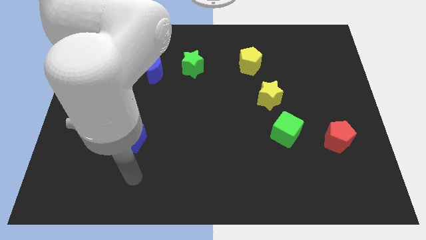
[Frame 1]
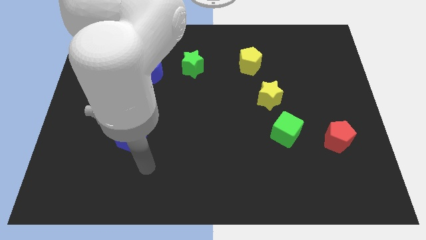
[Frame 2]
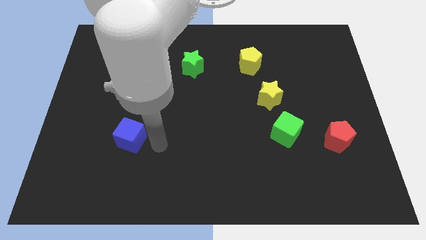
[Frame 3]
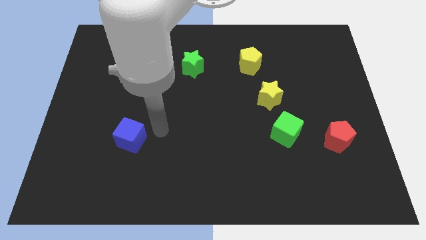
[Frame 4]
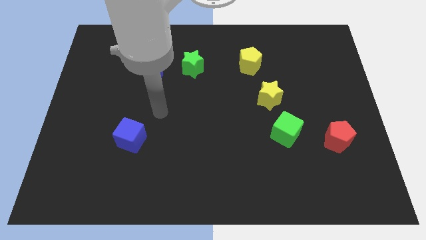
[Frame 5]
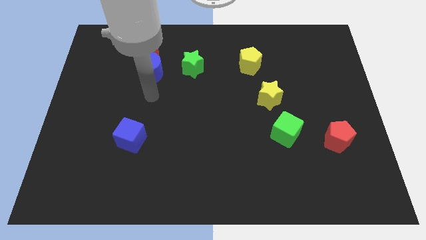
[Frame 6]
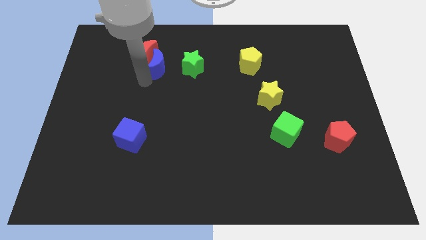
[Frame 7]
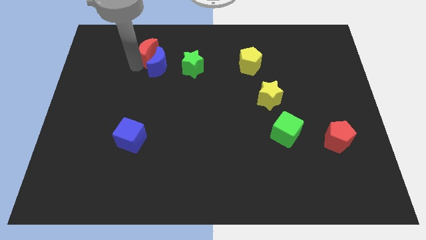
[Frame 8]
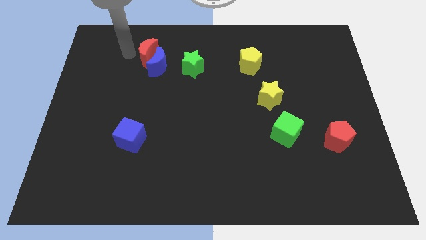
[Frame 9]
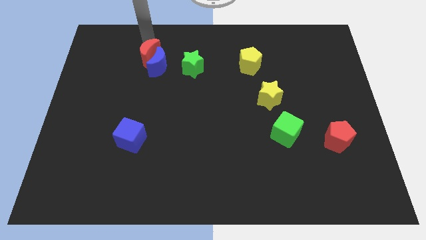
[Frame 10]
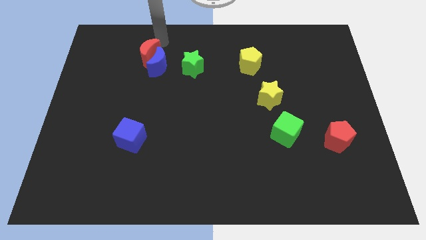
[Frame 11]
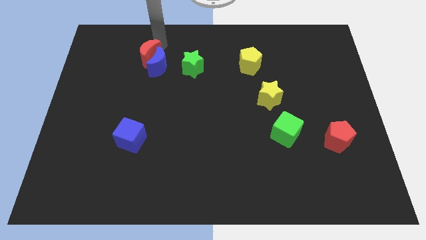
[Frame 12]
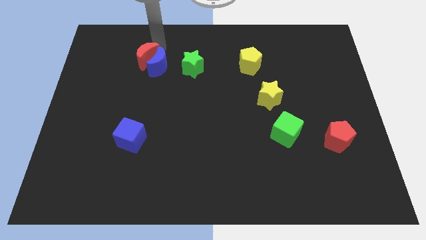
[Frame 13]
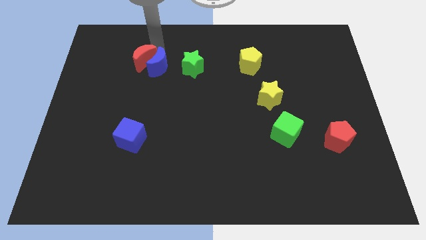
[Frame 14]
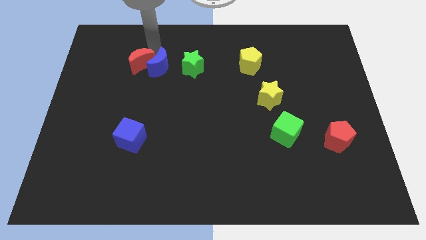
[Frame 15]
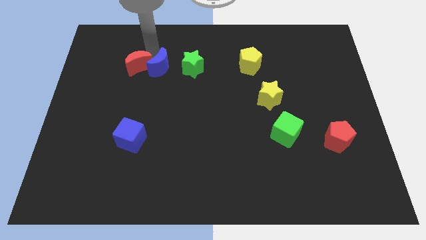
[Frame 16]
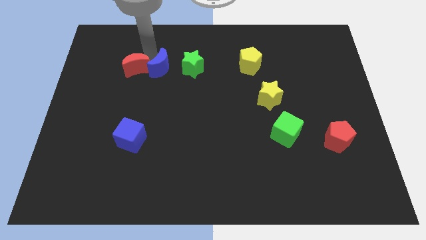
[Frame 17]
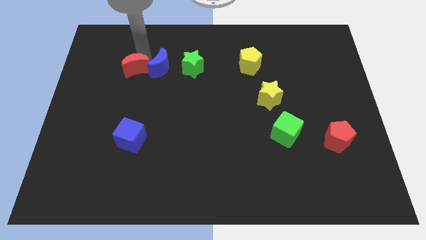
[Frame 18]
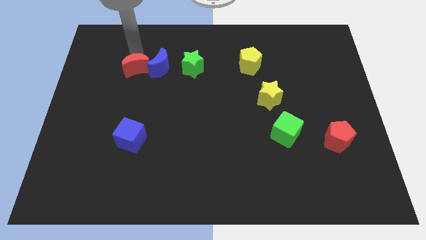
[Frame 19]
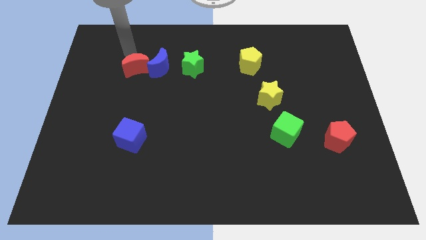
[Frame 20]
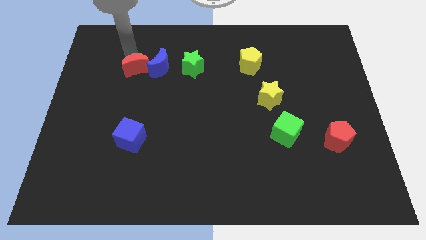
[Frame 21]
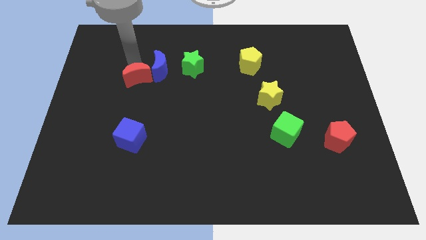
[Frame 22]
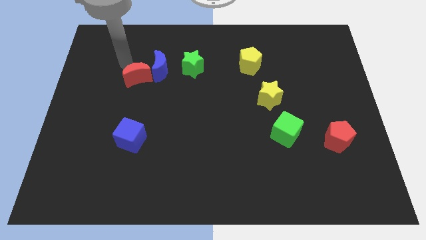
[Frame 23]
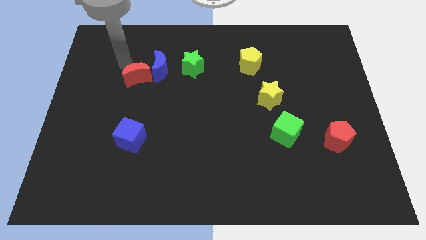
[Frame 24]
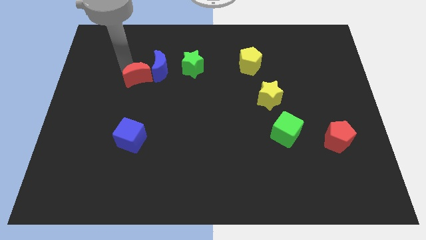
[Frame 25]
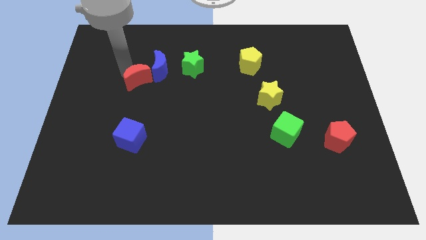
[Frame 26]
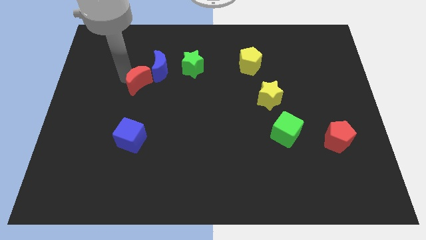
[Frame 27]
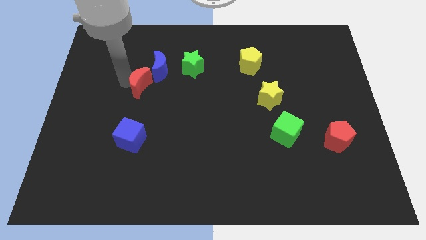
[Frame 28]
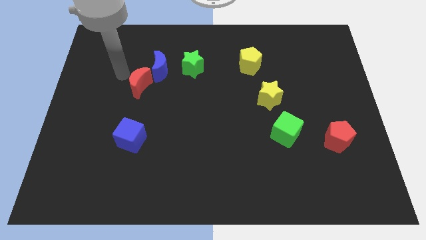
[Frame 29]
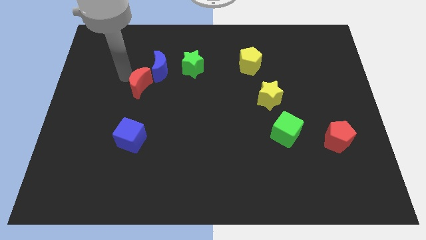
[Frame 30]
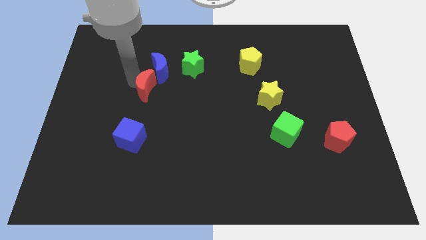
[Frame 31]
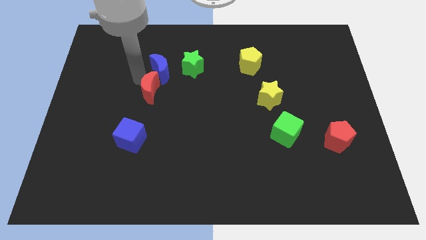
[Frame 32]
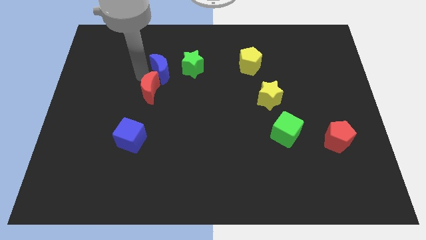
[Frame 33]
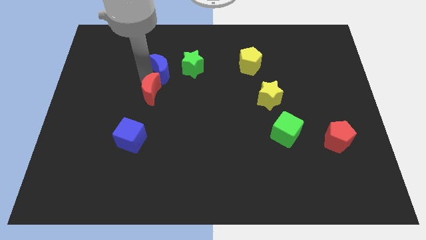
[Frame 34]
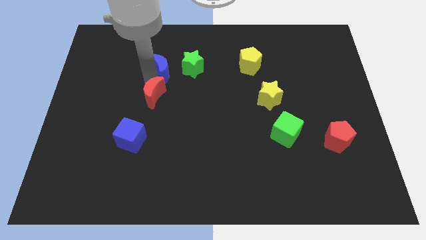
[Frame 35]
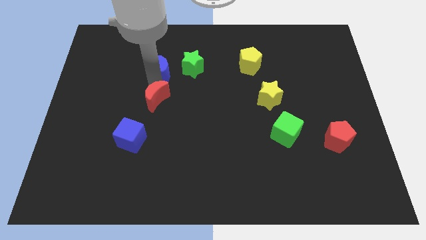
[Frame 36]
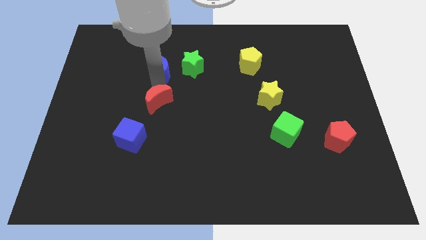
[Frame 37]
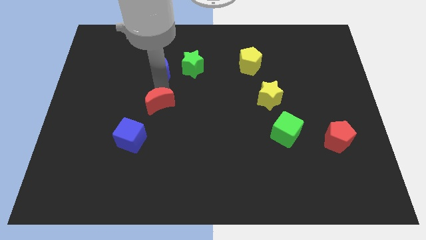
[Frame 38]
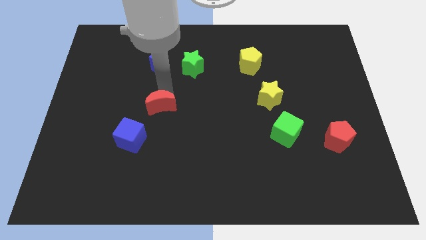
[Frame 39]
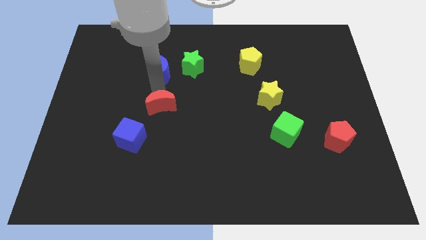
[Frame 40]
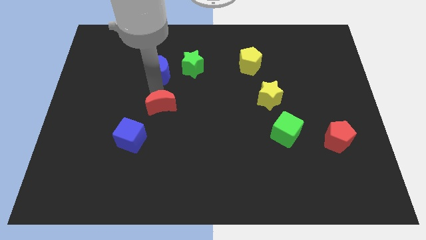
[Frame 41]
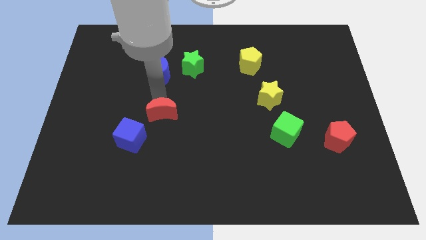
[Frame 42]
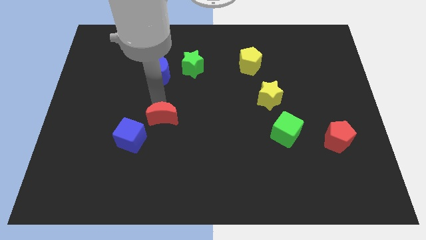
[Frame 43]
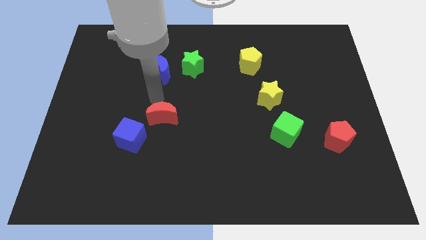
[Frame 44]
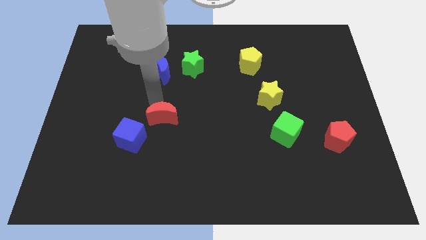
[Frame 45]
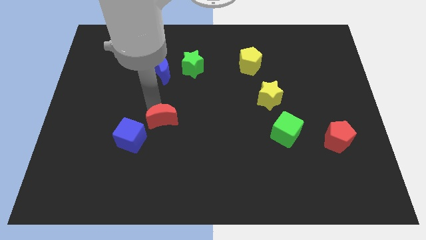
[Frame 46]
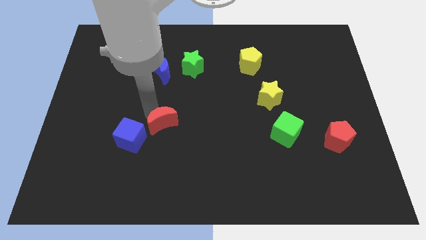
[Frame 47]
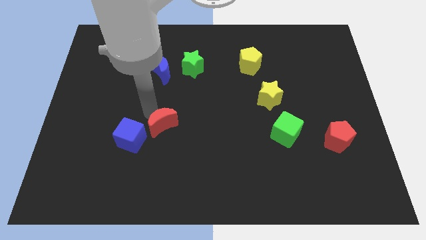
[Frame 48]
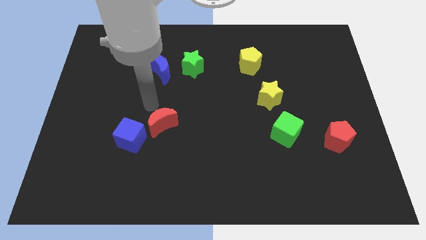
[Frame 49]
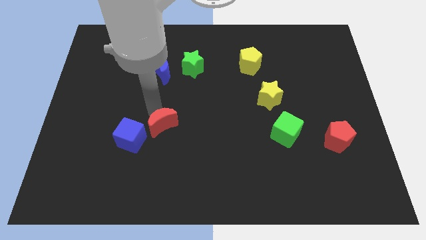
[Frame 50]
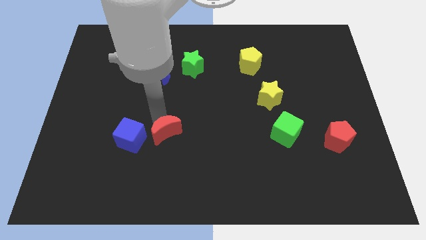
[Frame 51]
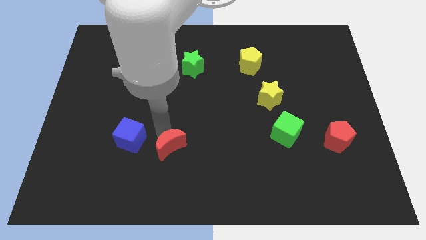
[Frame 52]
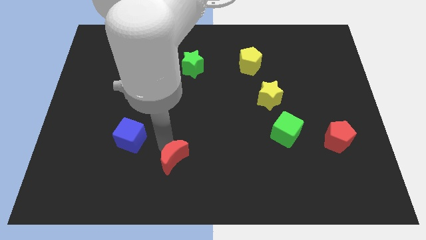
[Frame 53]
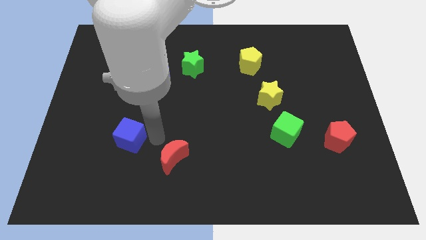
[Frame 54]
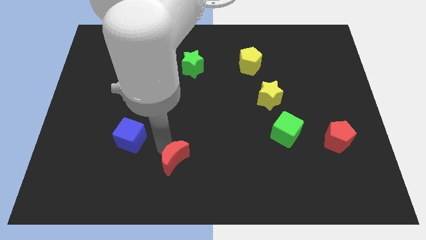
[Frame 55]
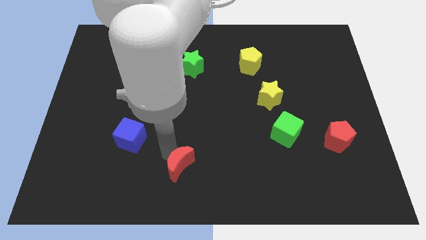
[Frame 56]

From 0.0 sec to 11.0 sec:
slide the red moon to the bottom

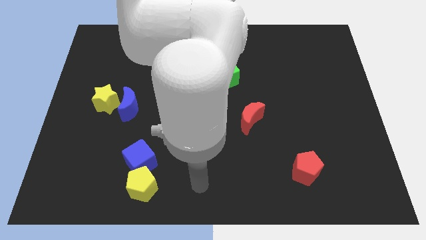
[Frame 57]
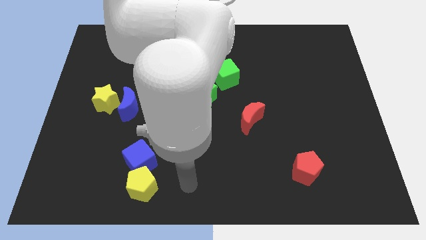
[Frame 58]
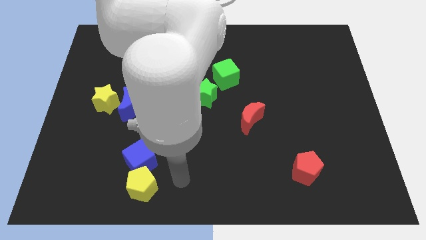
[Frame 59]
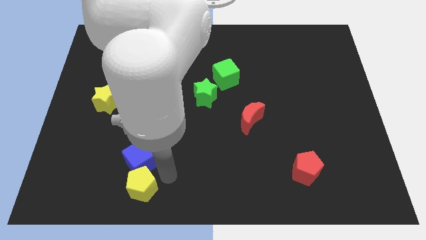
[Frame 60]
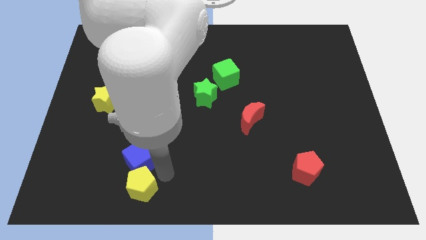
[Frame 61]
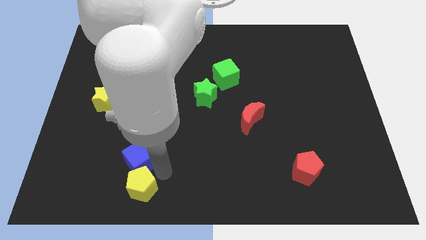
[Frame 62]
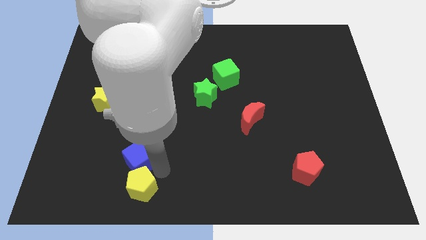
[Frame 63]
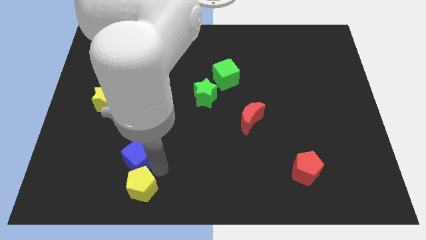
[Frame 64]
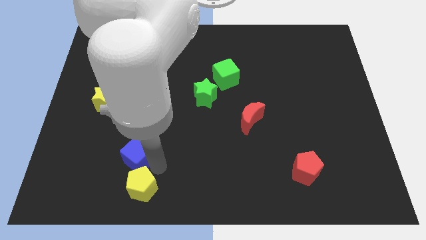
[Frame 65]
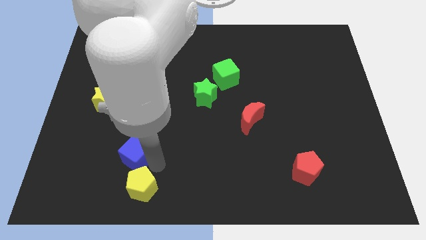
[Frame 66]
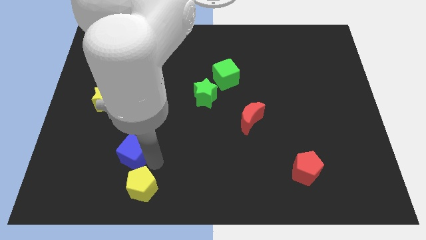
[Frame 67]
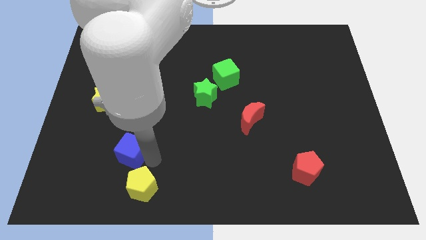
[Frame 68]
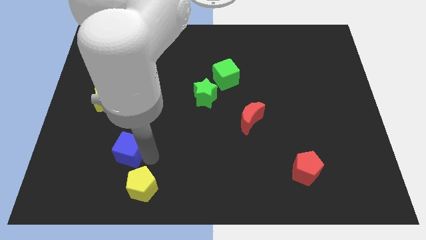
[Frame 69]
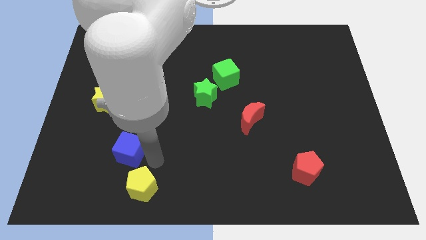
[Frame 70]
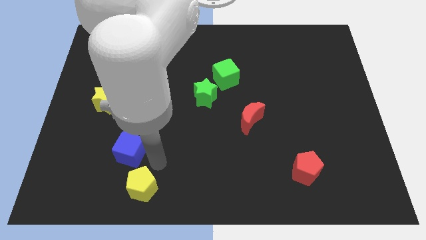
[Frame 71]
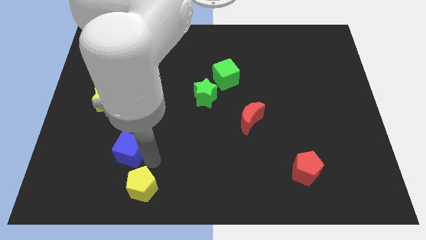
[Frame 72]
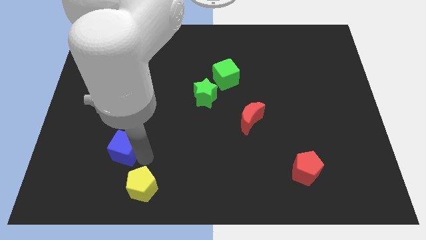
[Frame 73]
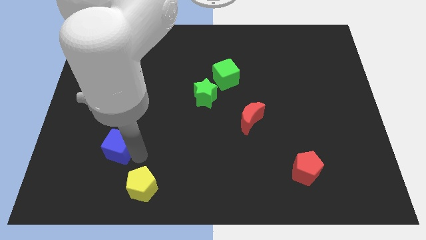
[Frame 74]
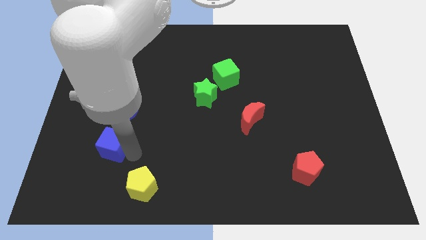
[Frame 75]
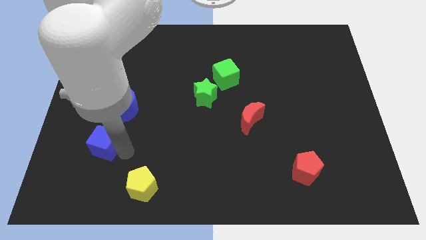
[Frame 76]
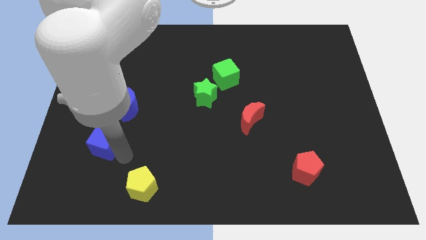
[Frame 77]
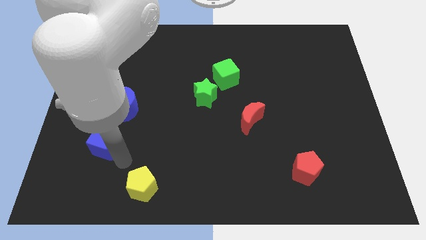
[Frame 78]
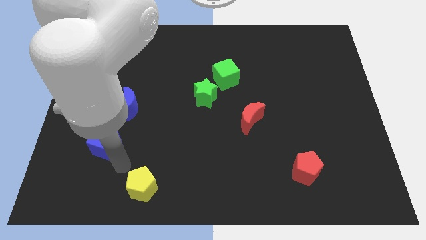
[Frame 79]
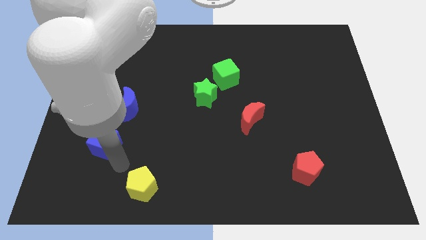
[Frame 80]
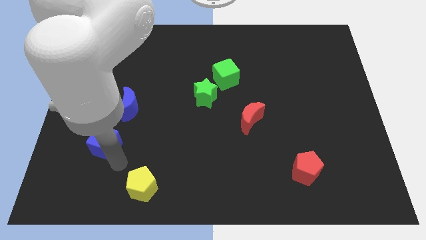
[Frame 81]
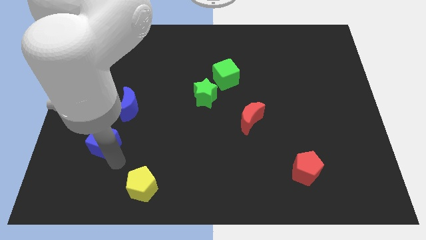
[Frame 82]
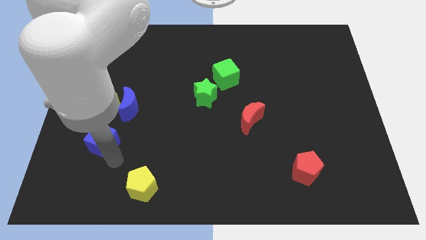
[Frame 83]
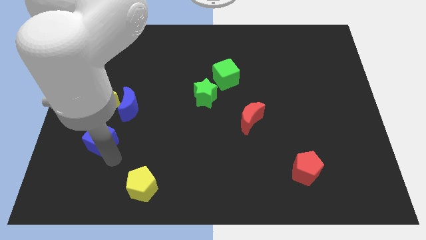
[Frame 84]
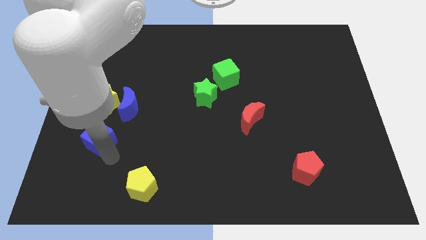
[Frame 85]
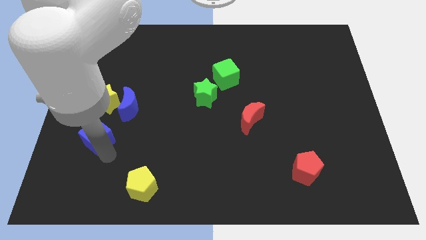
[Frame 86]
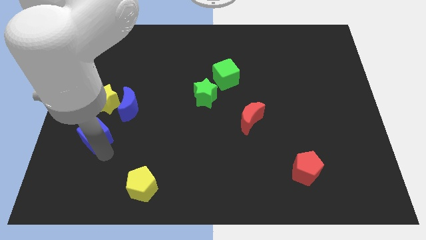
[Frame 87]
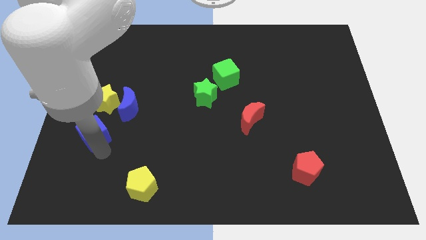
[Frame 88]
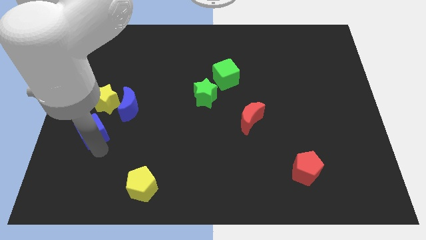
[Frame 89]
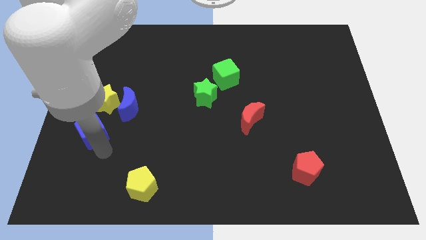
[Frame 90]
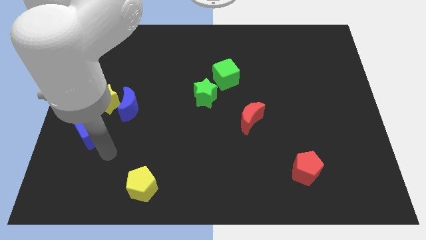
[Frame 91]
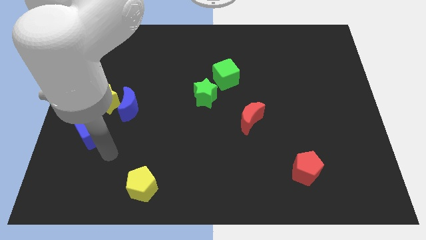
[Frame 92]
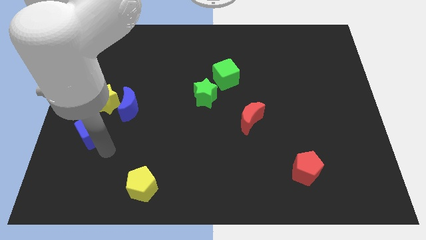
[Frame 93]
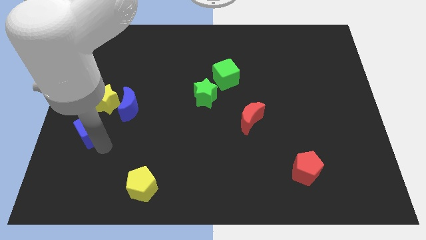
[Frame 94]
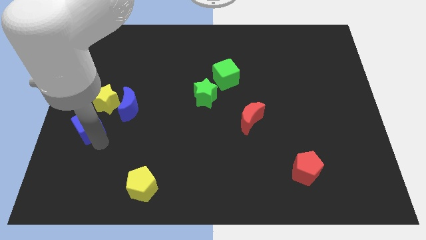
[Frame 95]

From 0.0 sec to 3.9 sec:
slide the blue cube to the left side of the board
